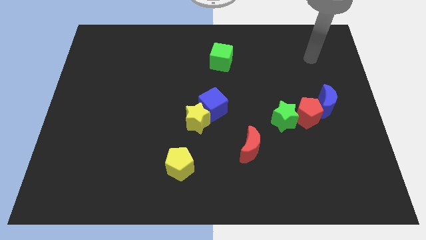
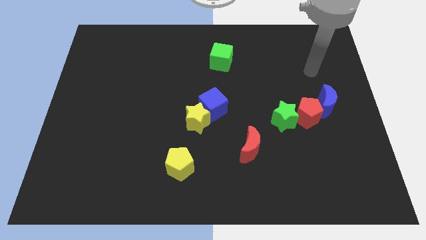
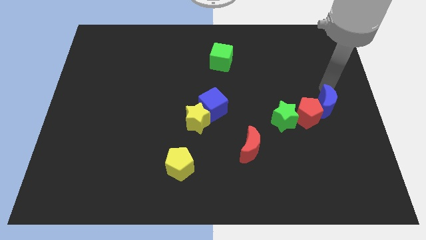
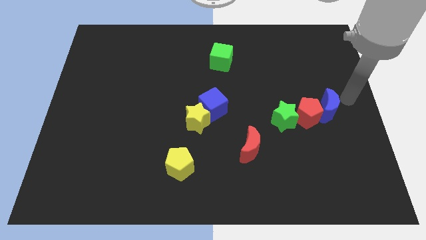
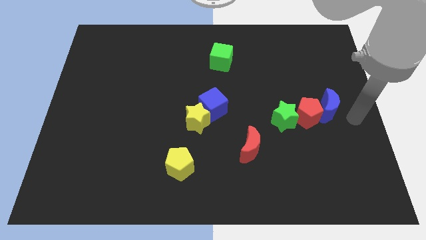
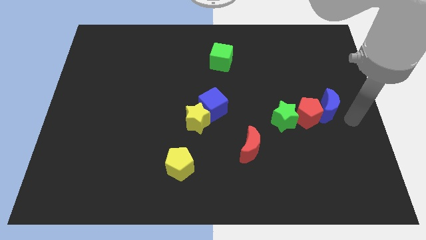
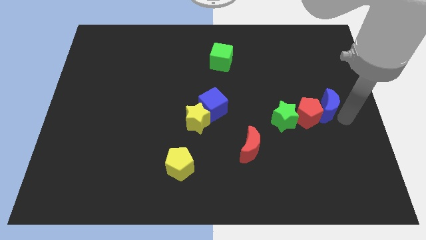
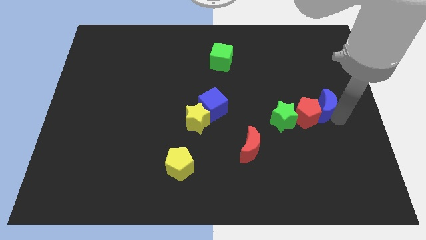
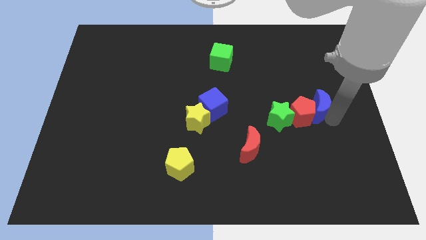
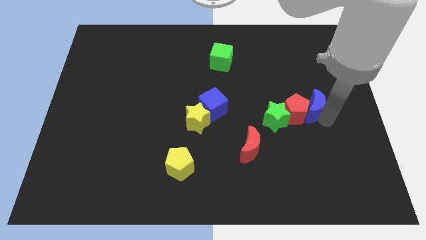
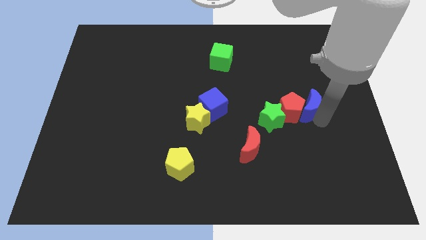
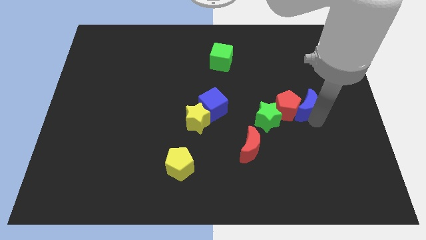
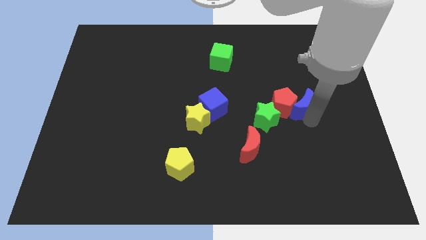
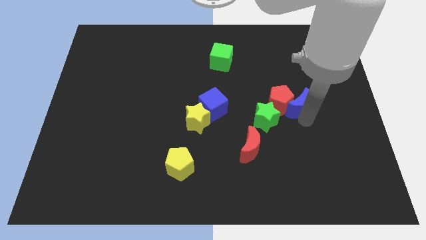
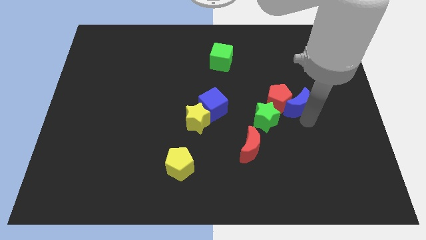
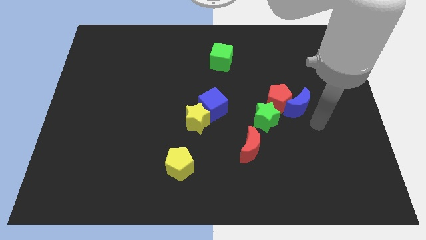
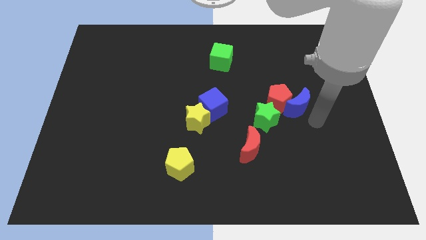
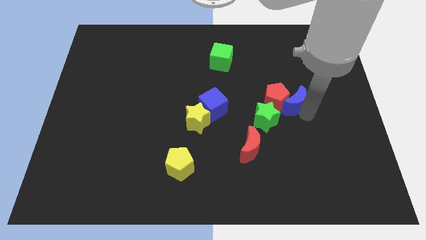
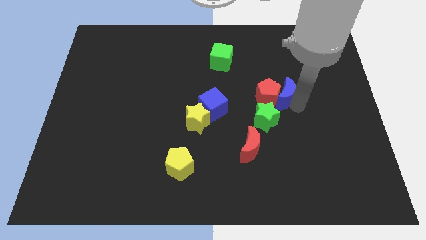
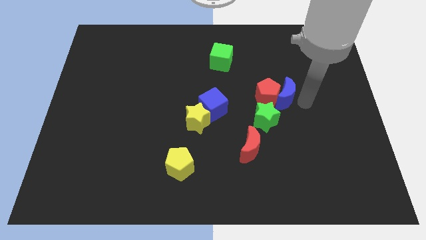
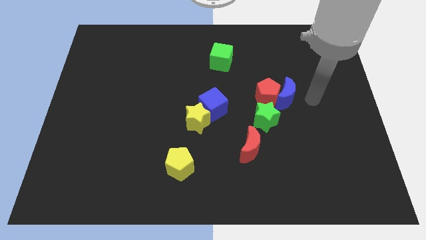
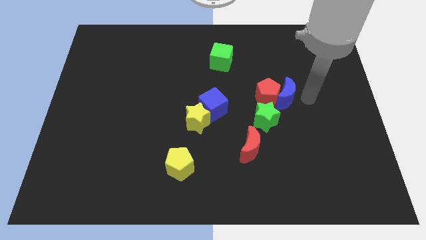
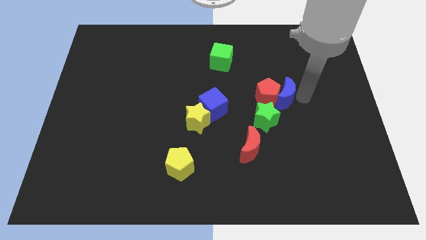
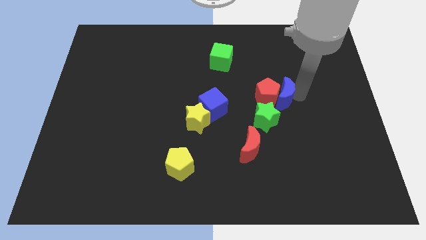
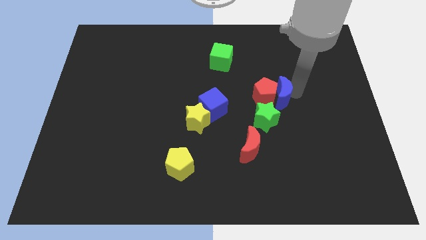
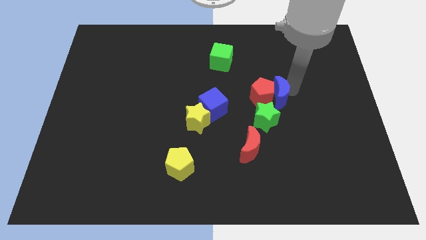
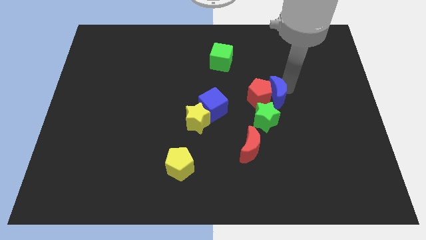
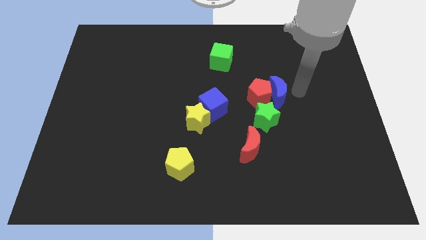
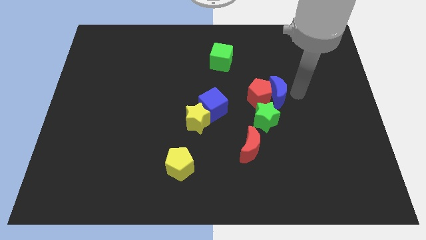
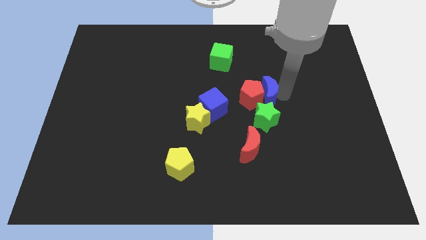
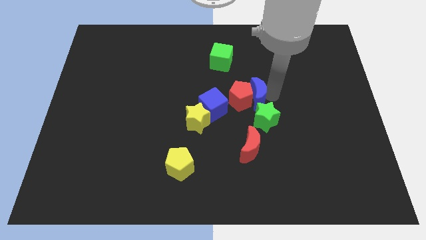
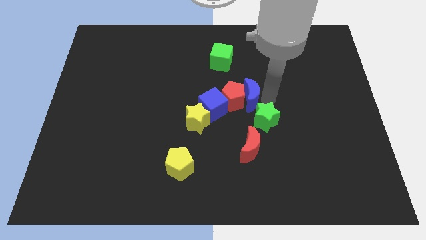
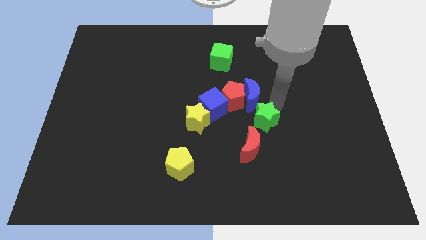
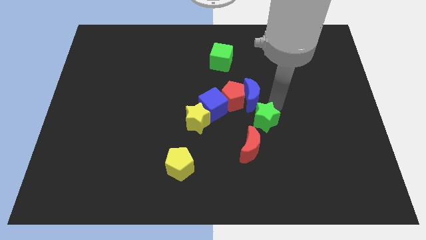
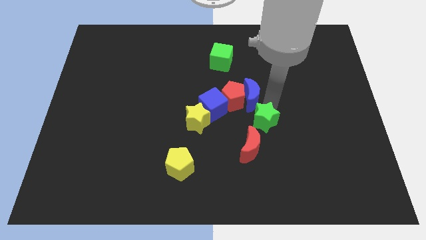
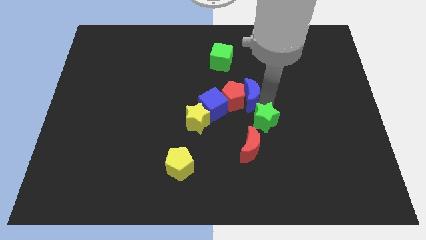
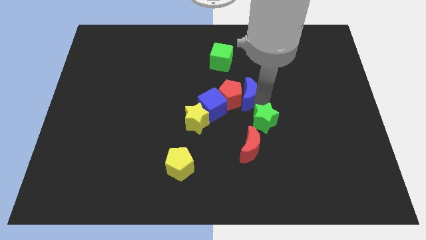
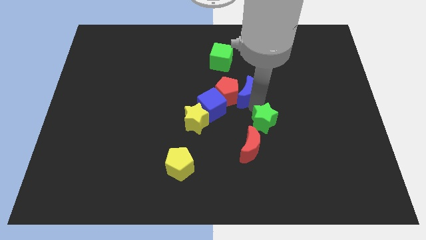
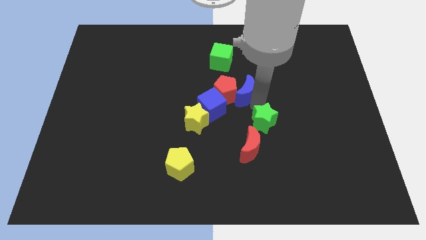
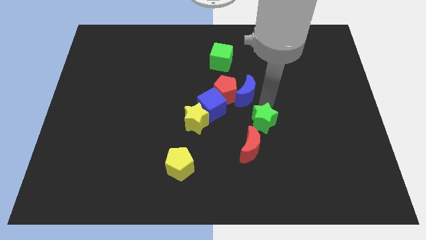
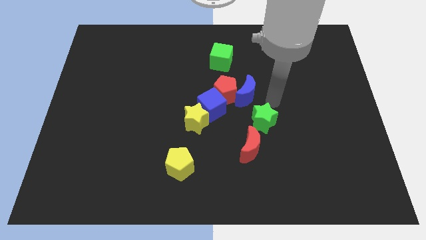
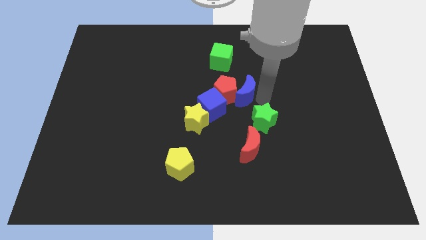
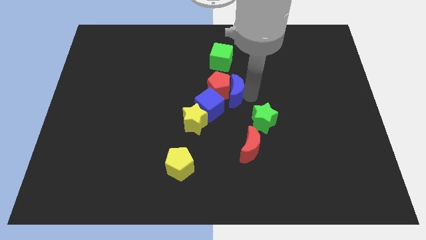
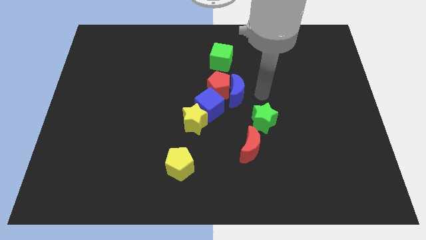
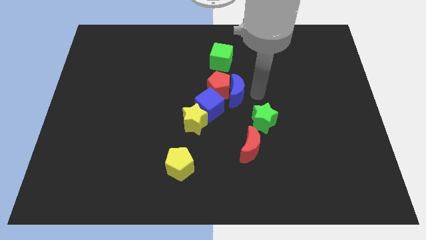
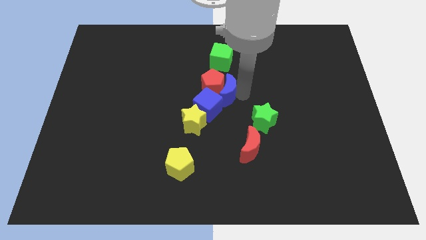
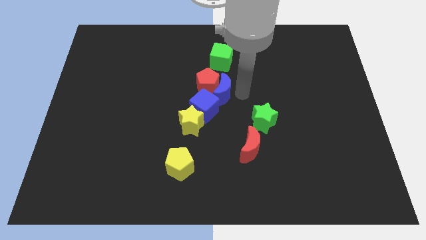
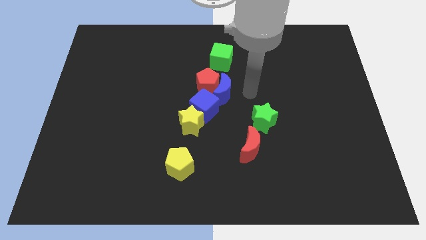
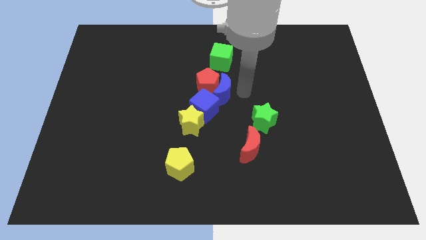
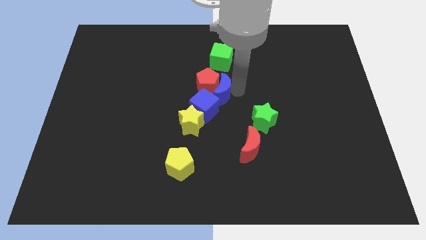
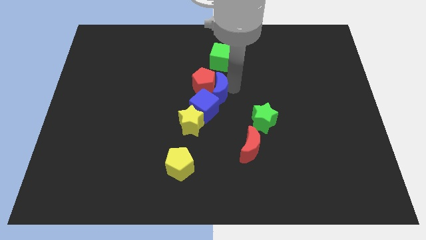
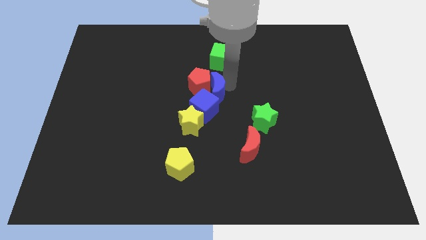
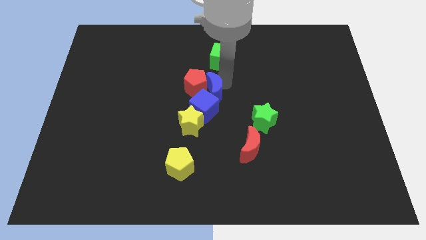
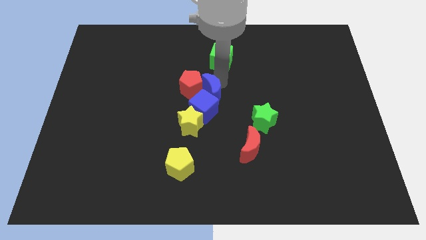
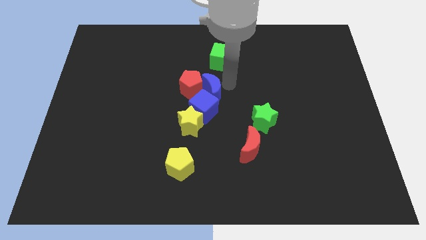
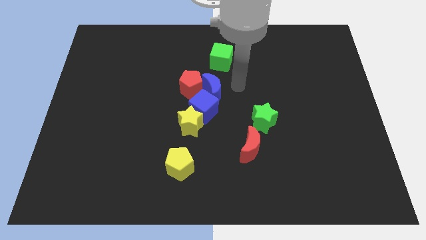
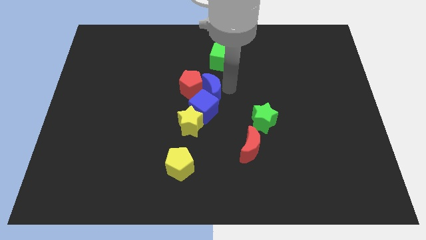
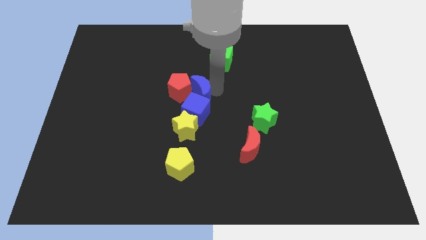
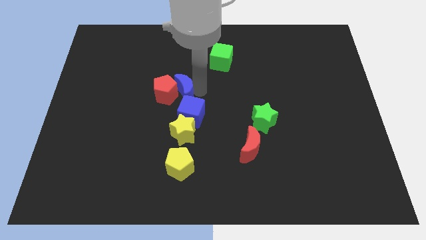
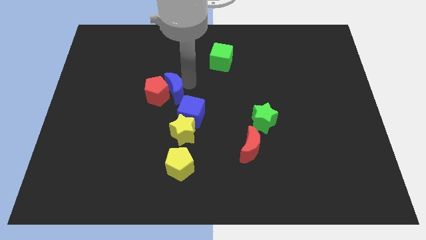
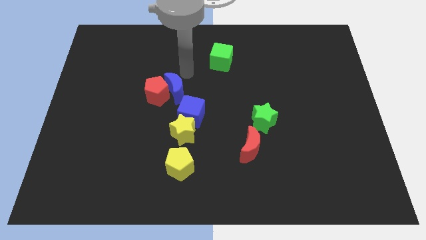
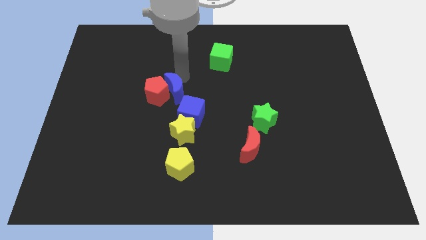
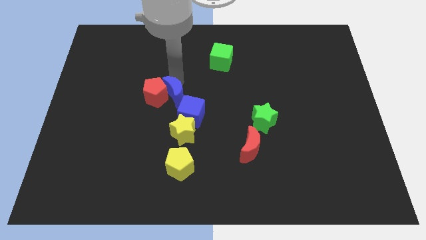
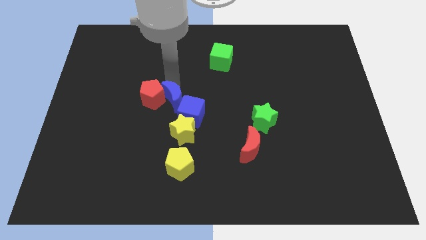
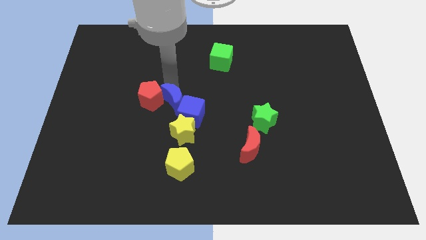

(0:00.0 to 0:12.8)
move the blue moon to the top left of the yellow star

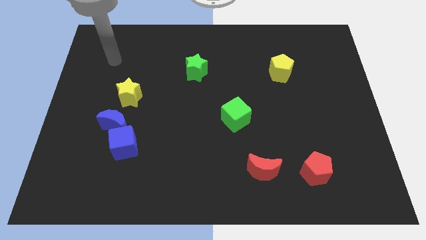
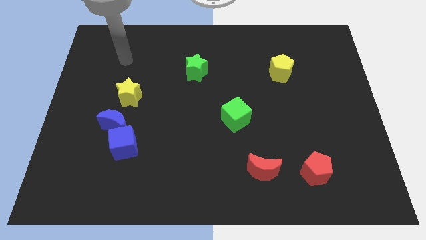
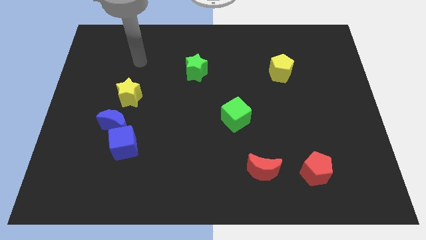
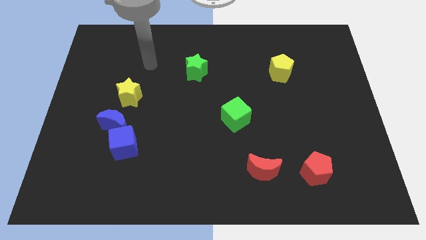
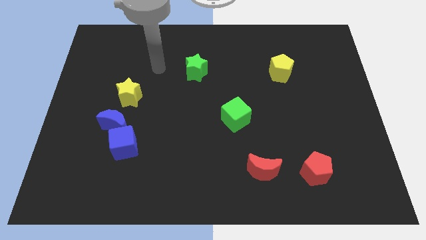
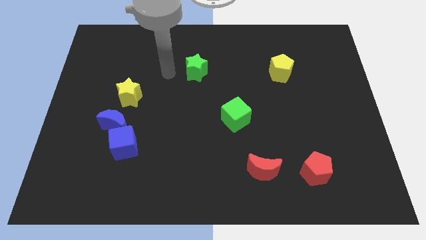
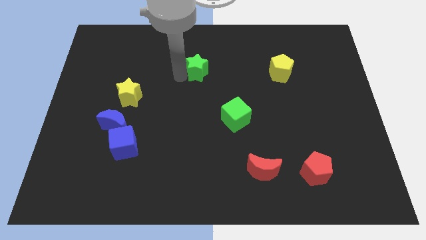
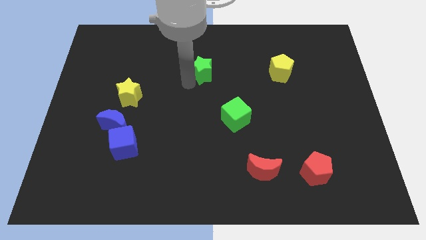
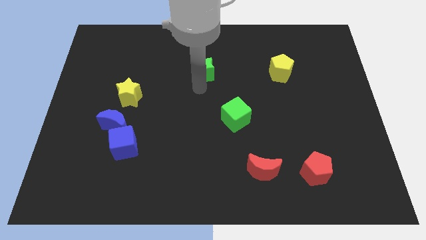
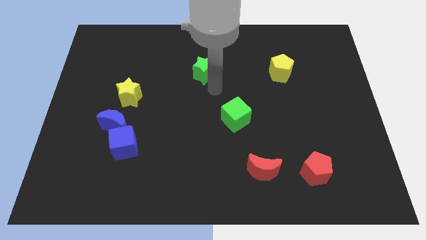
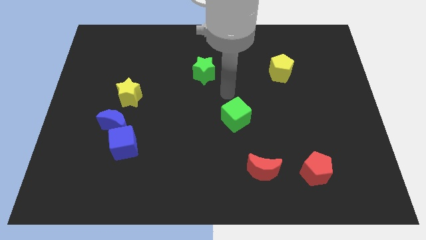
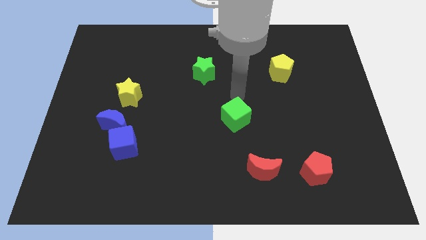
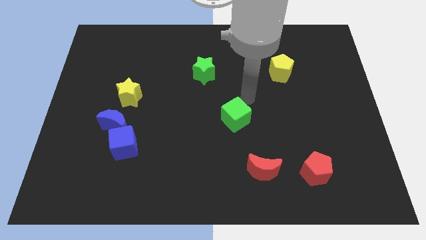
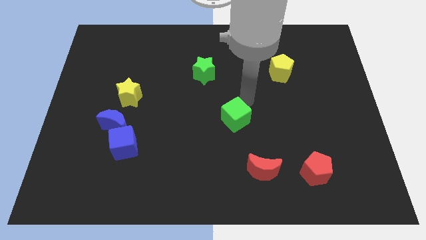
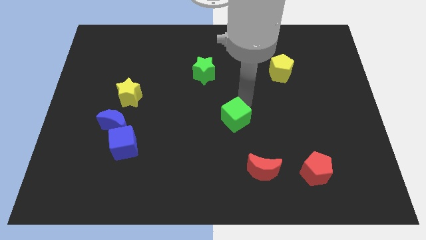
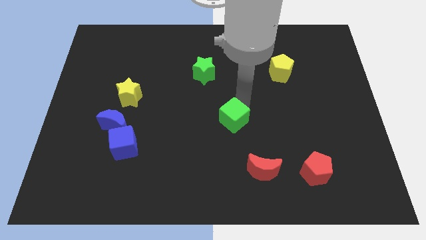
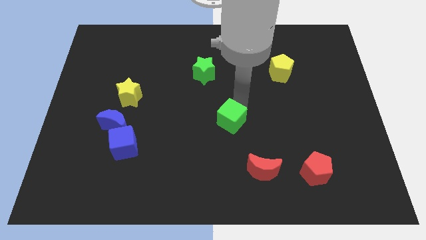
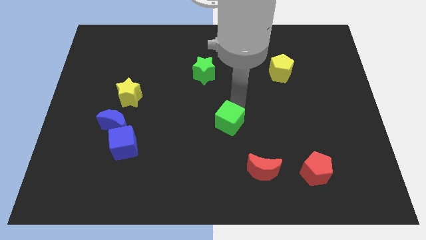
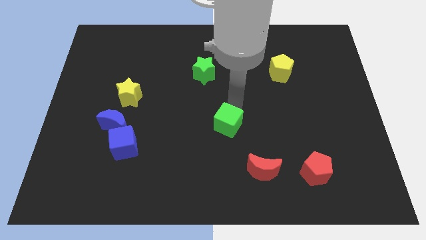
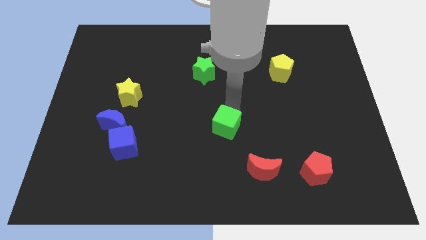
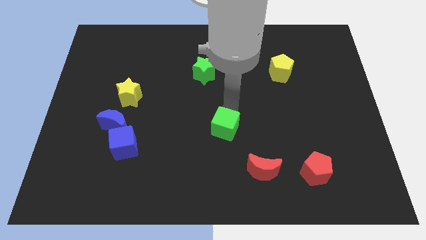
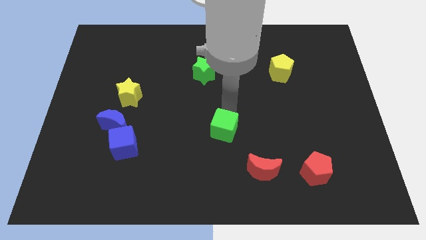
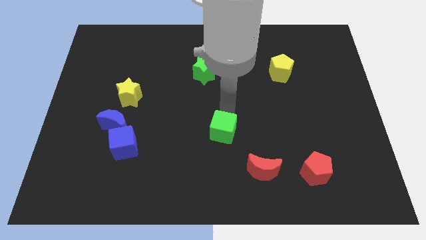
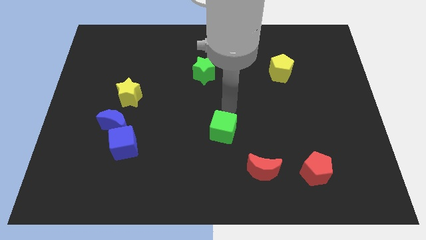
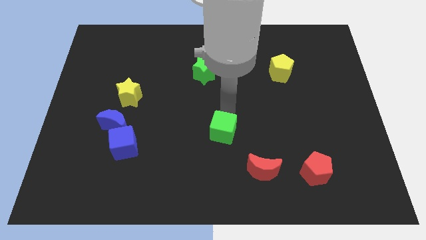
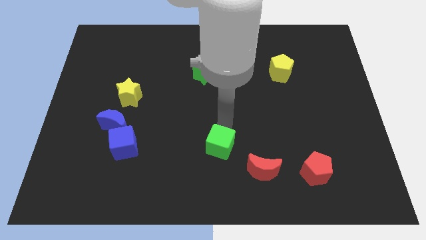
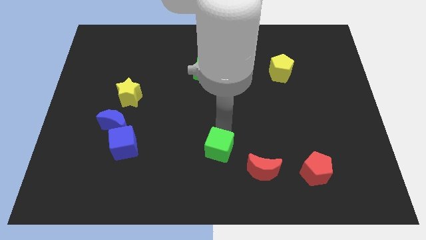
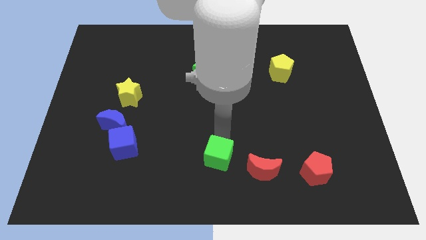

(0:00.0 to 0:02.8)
slide the green cube to the left side of the red moon
